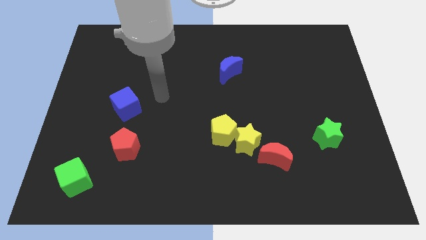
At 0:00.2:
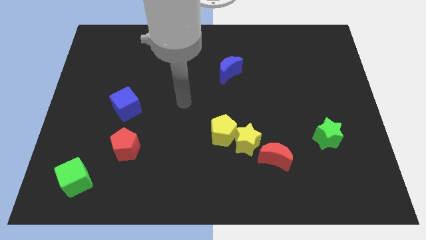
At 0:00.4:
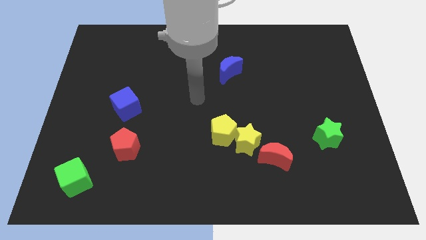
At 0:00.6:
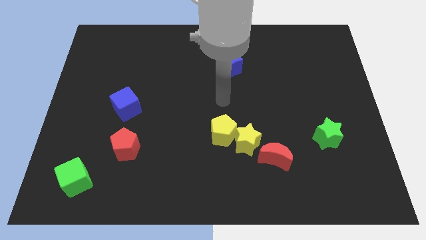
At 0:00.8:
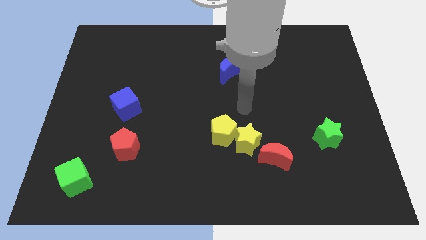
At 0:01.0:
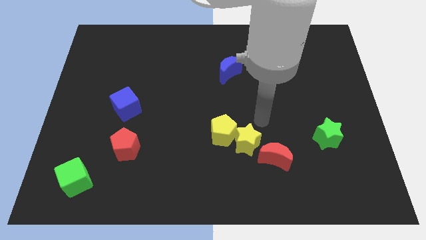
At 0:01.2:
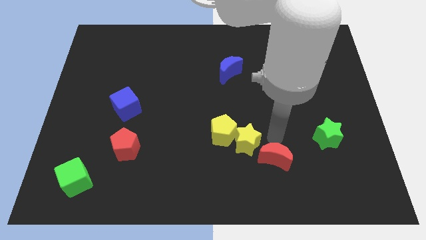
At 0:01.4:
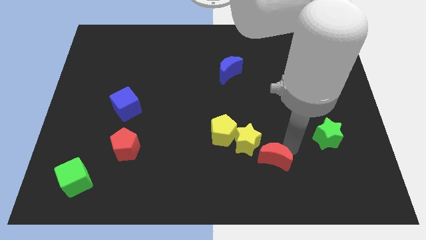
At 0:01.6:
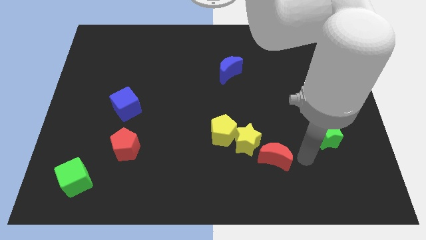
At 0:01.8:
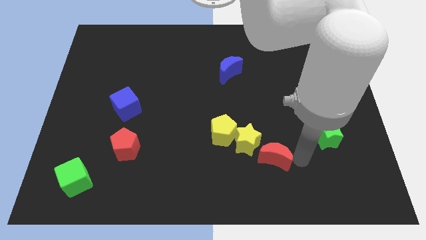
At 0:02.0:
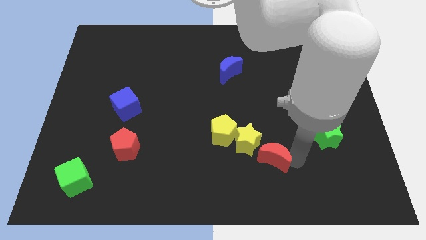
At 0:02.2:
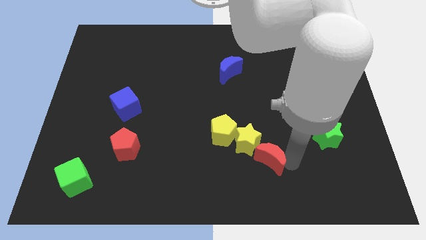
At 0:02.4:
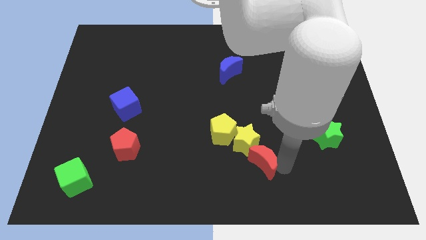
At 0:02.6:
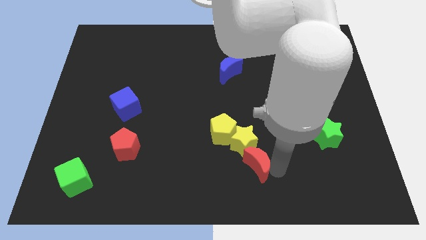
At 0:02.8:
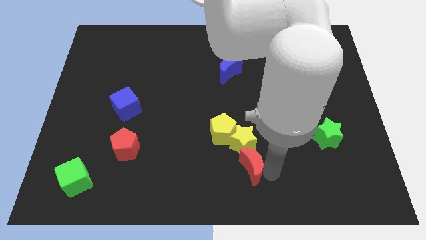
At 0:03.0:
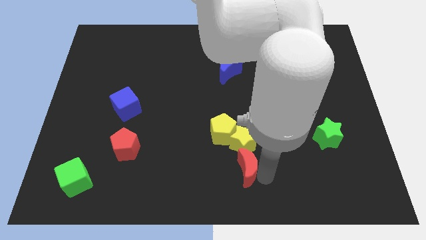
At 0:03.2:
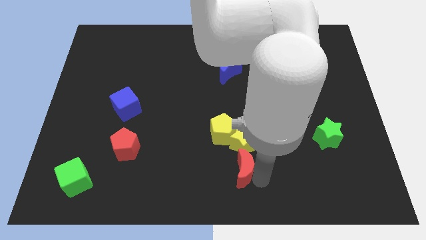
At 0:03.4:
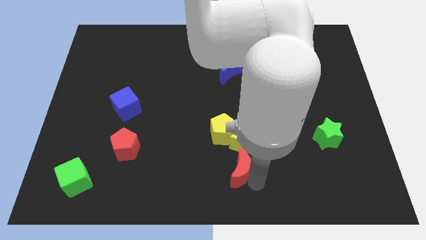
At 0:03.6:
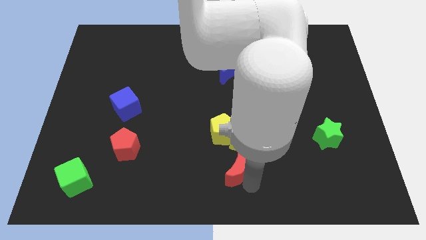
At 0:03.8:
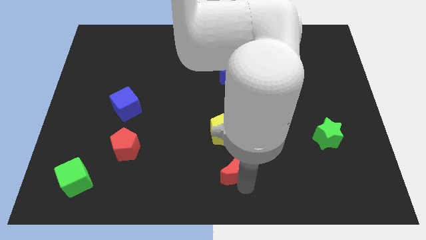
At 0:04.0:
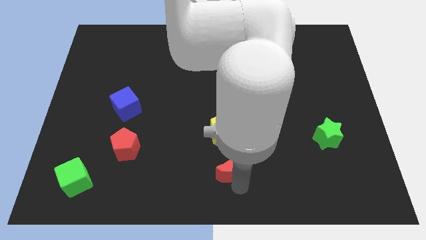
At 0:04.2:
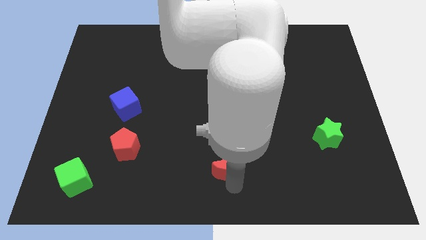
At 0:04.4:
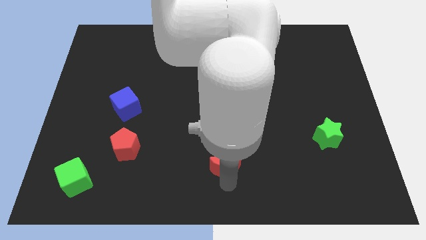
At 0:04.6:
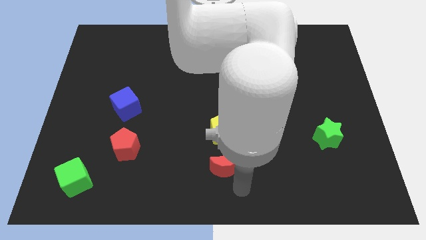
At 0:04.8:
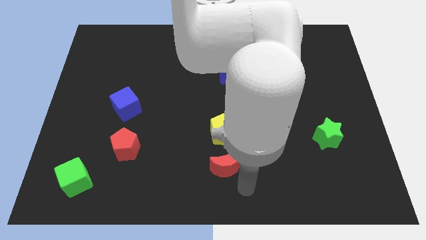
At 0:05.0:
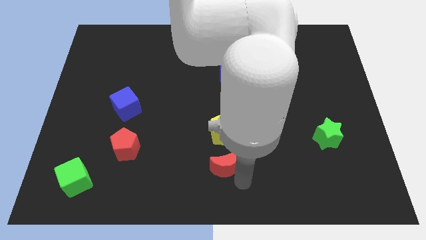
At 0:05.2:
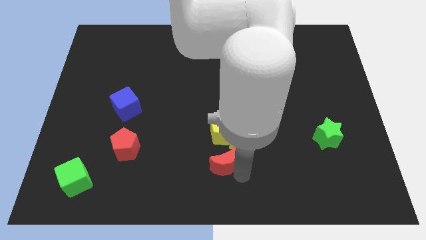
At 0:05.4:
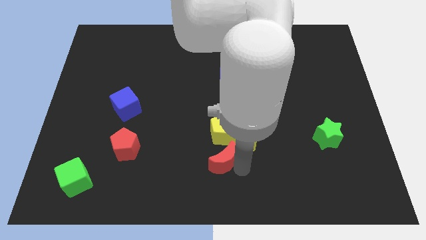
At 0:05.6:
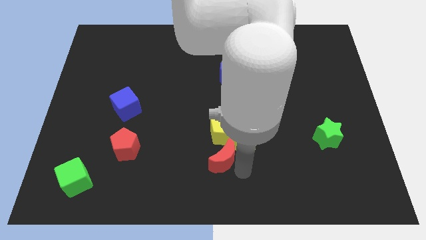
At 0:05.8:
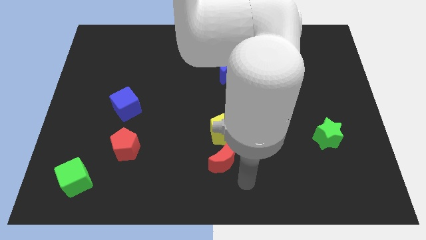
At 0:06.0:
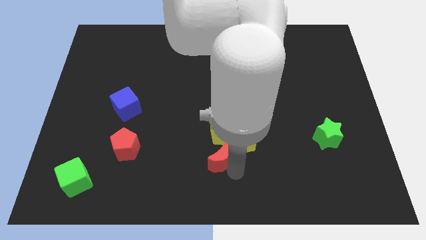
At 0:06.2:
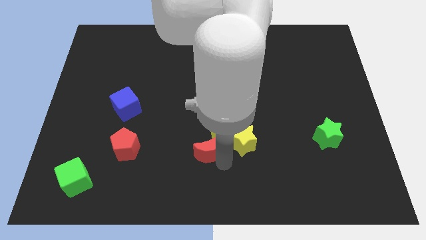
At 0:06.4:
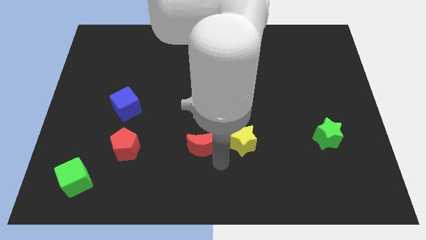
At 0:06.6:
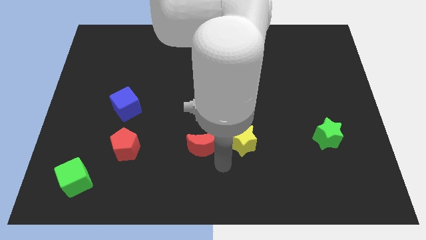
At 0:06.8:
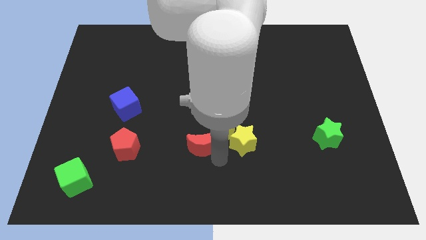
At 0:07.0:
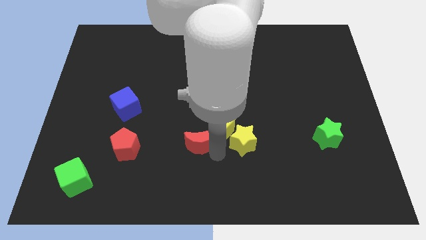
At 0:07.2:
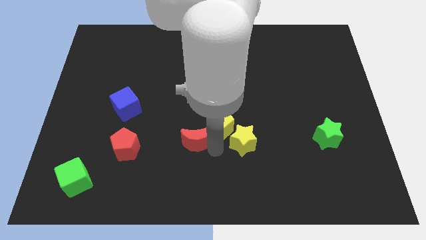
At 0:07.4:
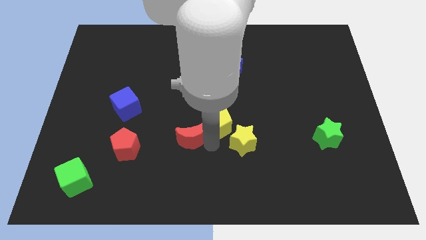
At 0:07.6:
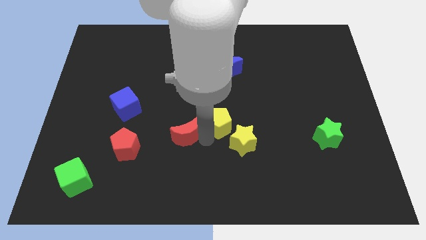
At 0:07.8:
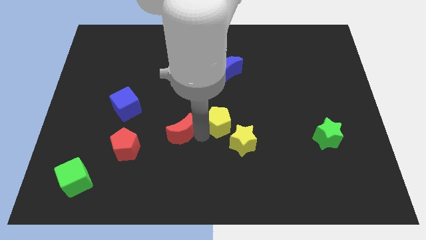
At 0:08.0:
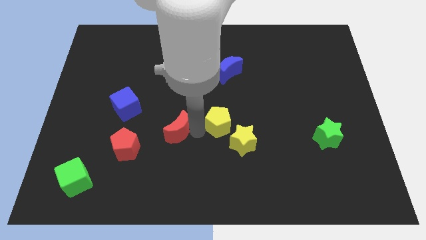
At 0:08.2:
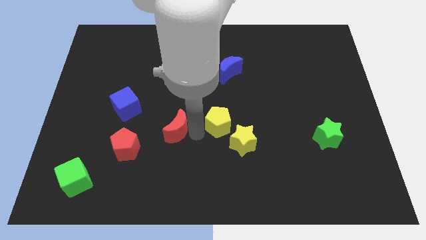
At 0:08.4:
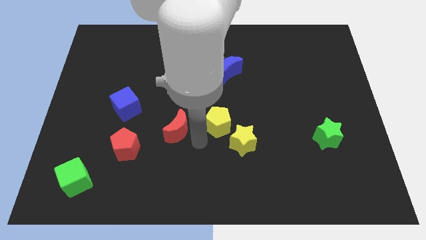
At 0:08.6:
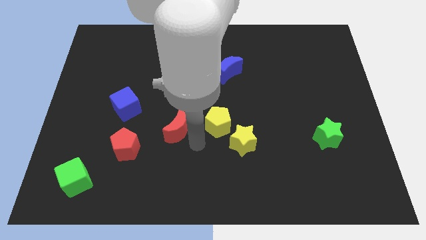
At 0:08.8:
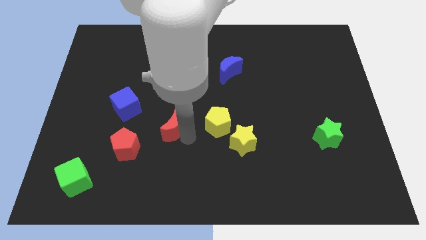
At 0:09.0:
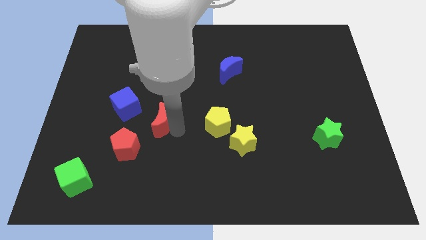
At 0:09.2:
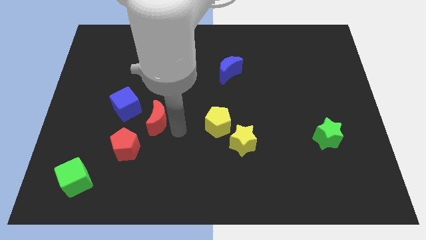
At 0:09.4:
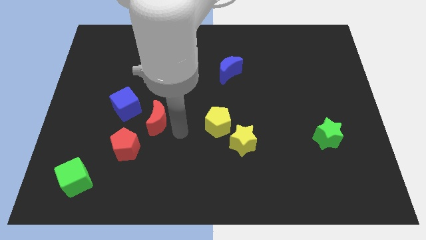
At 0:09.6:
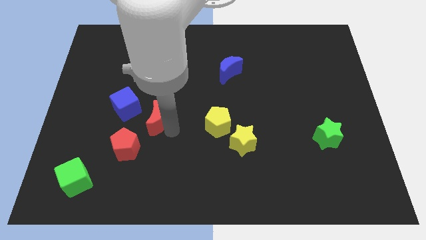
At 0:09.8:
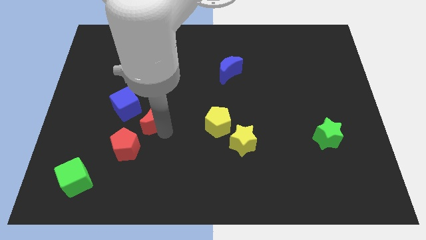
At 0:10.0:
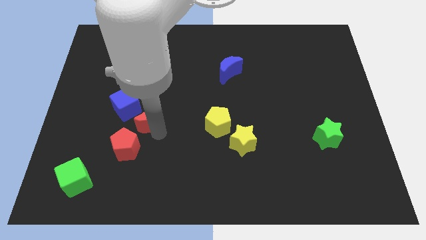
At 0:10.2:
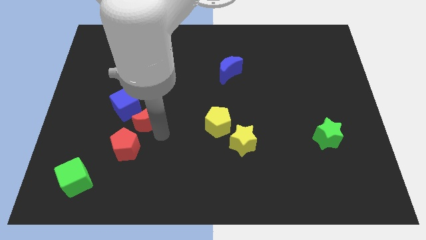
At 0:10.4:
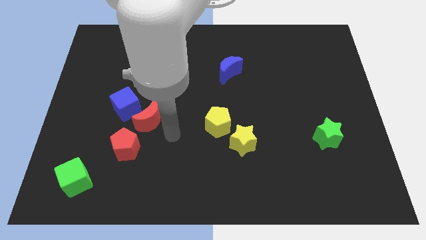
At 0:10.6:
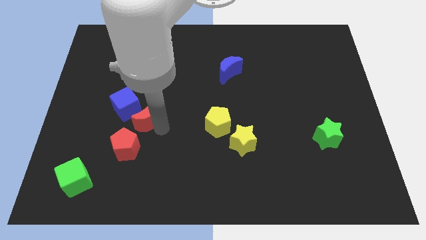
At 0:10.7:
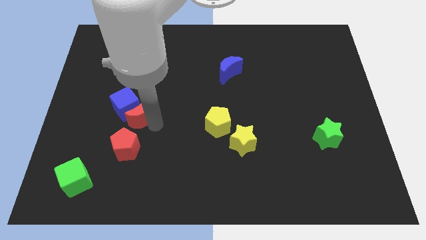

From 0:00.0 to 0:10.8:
put the red moon to the blue cube

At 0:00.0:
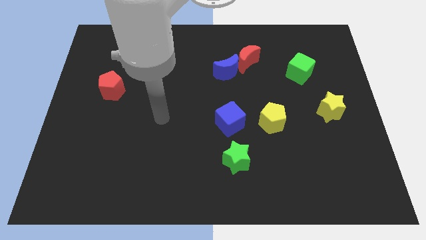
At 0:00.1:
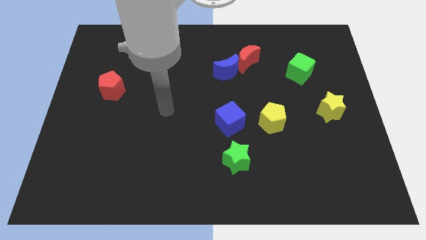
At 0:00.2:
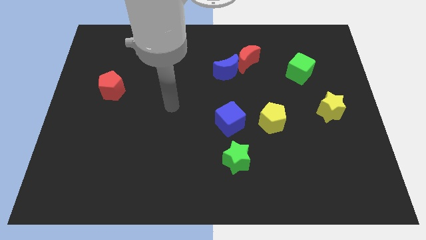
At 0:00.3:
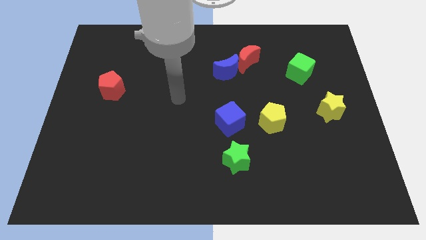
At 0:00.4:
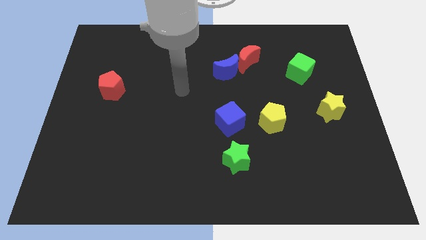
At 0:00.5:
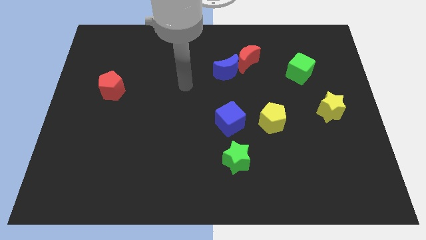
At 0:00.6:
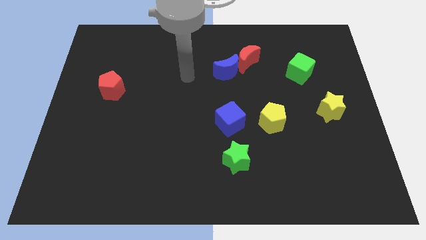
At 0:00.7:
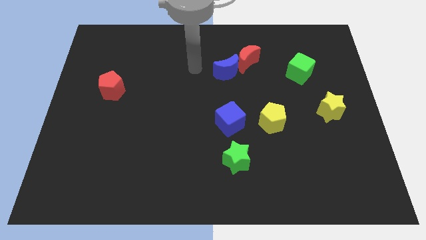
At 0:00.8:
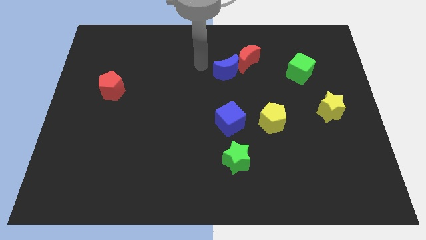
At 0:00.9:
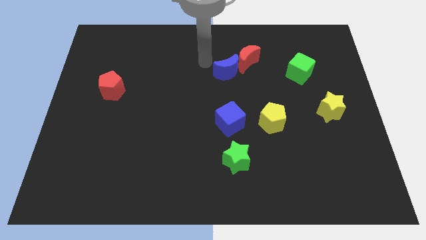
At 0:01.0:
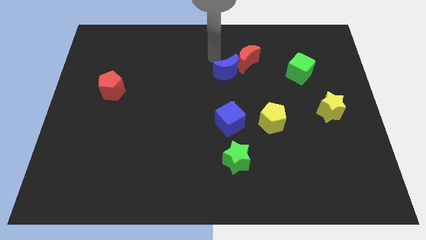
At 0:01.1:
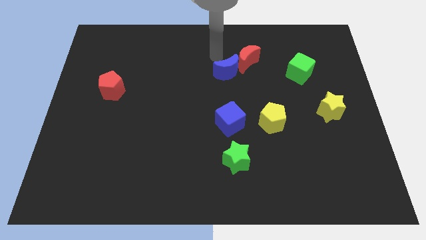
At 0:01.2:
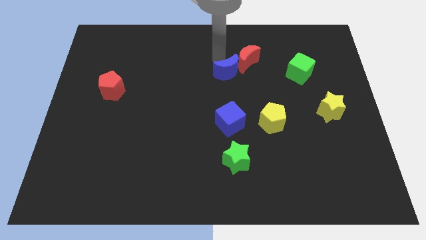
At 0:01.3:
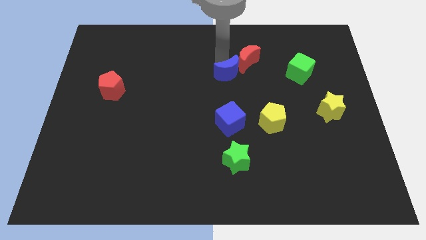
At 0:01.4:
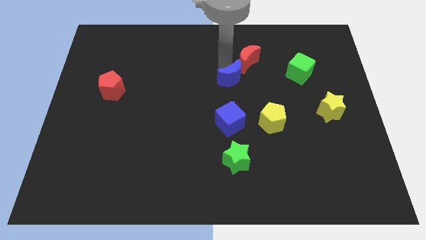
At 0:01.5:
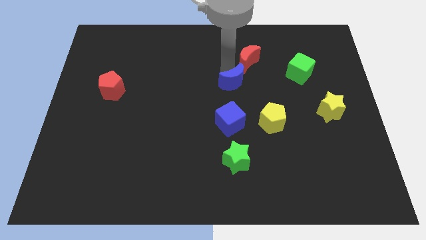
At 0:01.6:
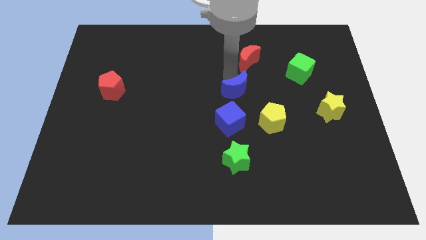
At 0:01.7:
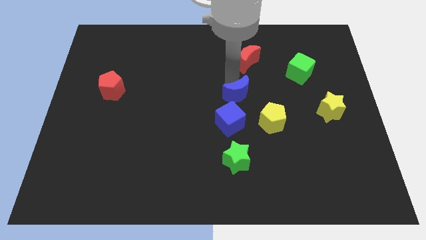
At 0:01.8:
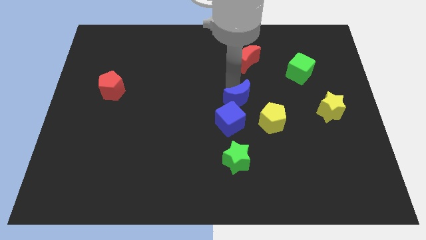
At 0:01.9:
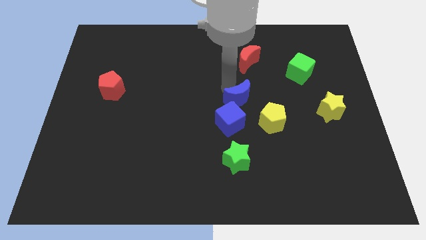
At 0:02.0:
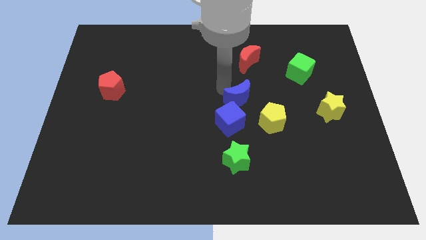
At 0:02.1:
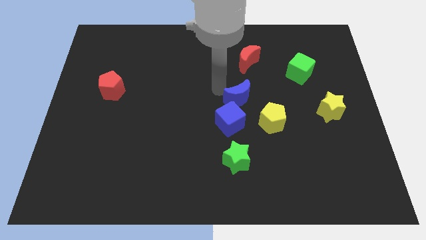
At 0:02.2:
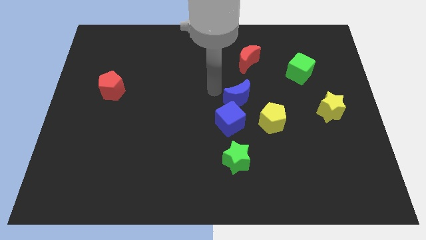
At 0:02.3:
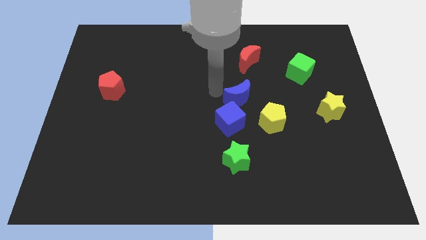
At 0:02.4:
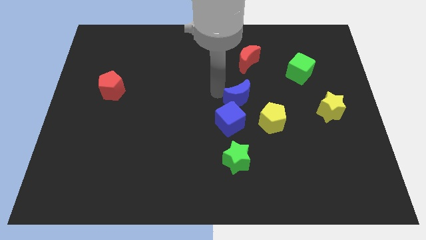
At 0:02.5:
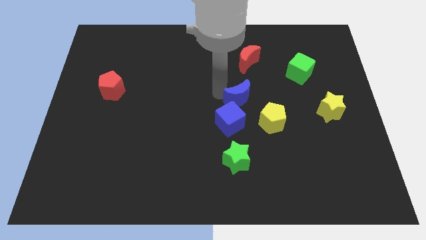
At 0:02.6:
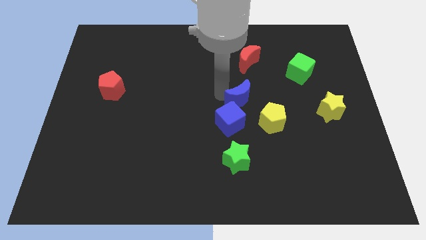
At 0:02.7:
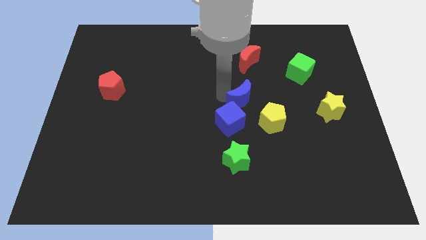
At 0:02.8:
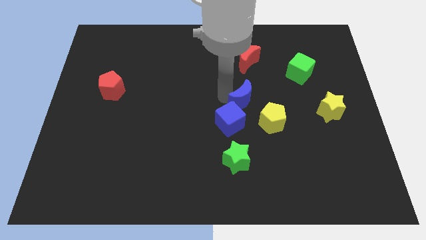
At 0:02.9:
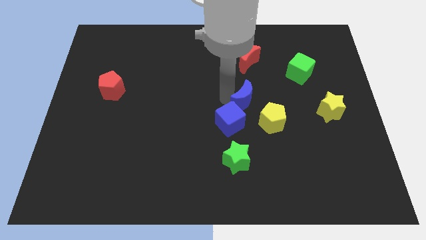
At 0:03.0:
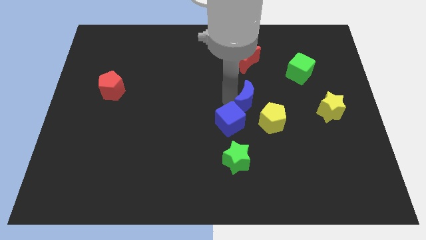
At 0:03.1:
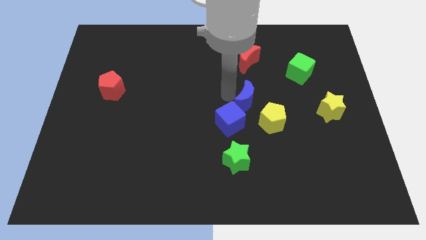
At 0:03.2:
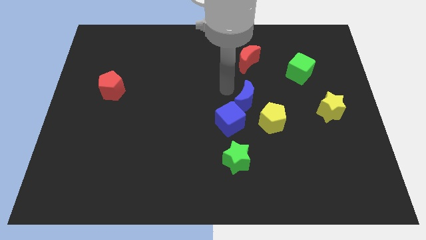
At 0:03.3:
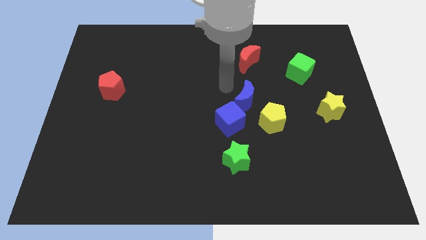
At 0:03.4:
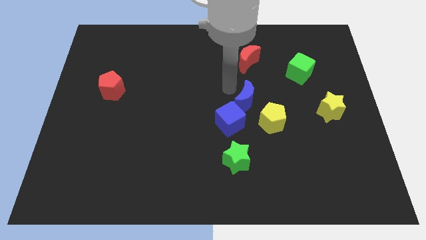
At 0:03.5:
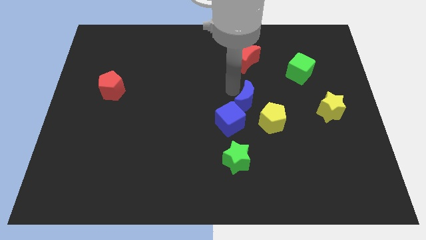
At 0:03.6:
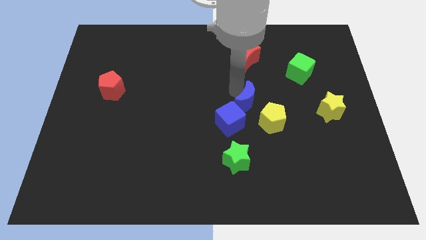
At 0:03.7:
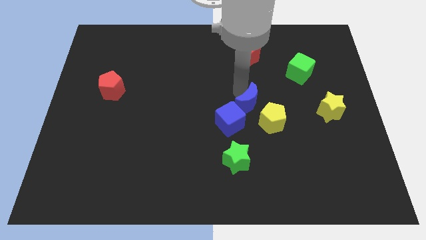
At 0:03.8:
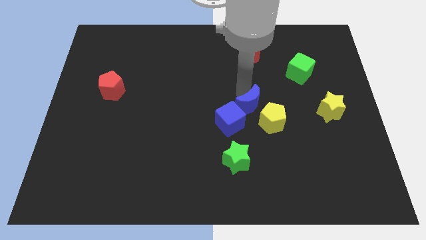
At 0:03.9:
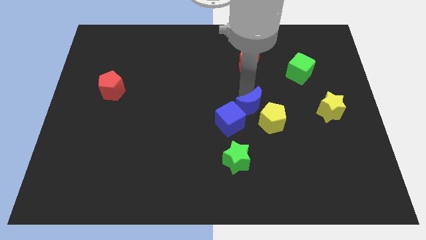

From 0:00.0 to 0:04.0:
put the blue moon to the yellow pentagon
